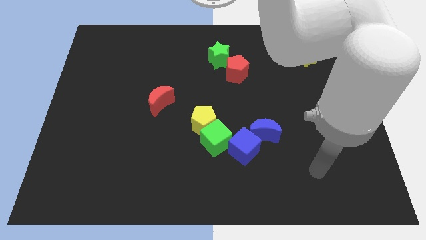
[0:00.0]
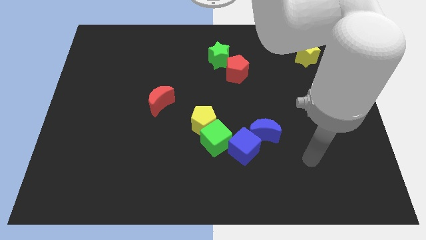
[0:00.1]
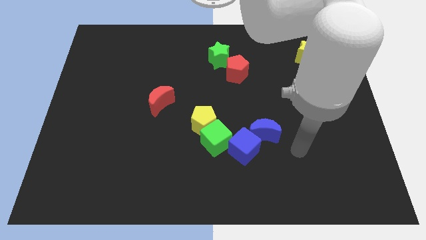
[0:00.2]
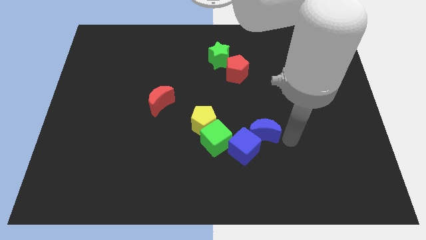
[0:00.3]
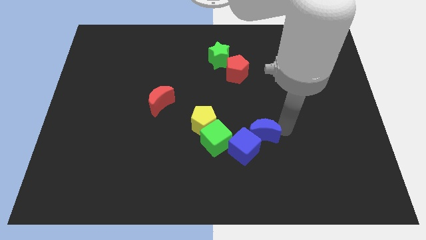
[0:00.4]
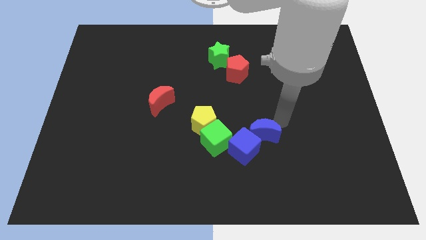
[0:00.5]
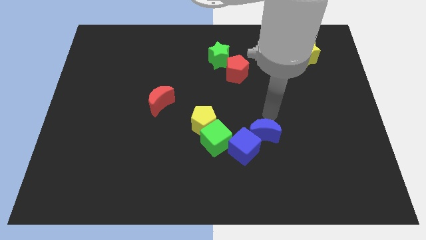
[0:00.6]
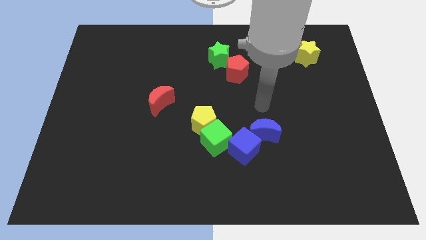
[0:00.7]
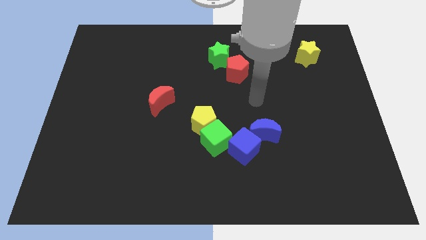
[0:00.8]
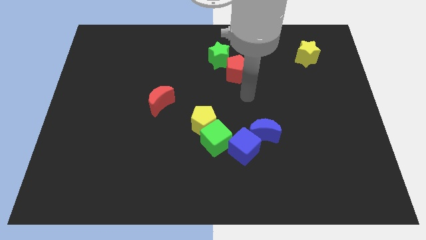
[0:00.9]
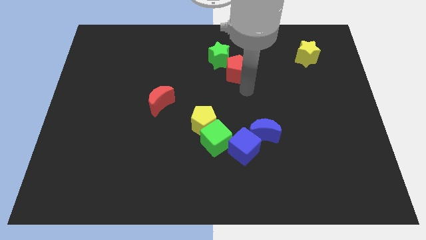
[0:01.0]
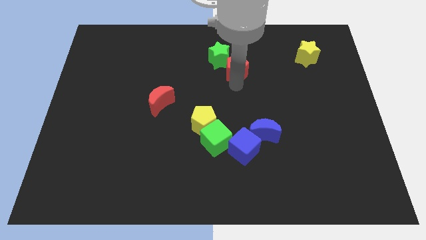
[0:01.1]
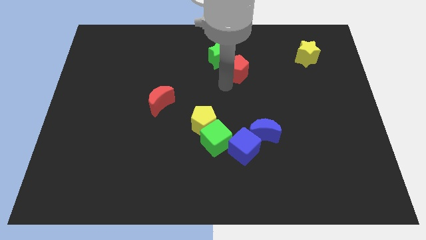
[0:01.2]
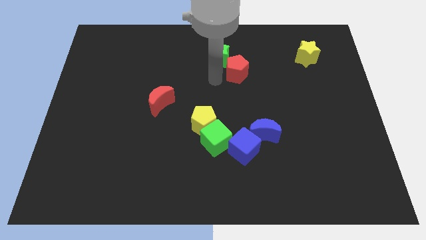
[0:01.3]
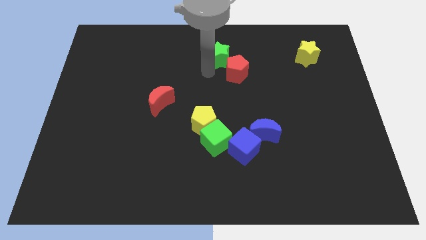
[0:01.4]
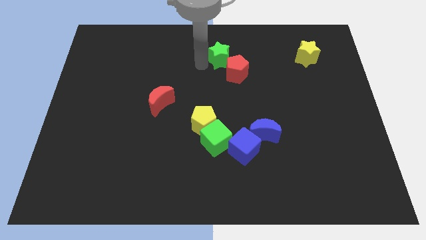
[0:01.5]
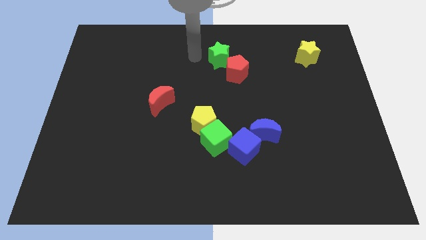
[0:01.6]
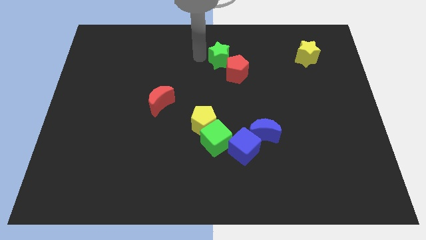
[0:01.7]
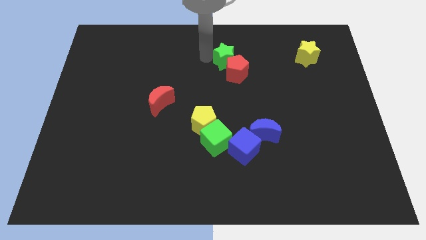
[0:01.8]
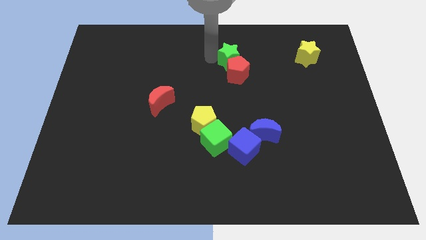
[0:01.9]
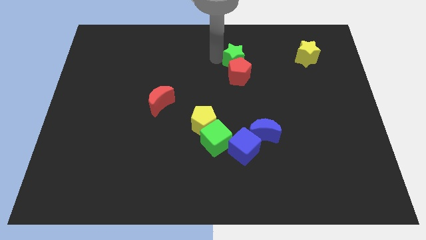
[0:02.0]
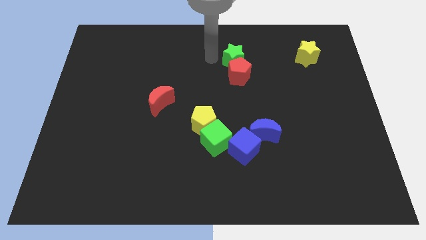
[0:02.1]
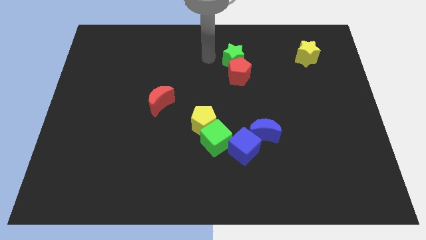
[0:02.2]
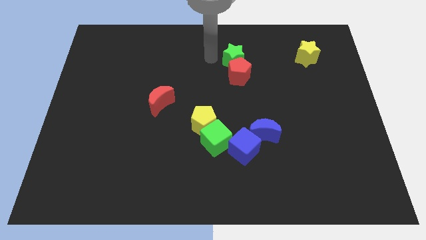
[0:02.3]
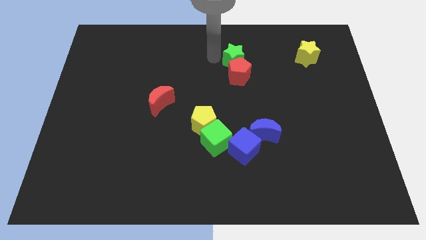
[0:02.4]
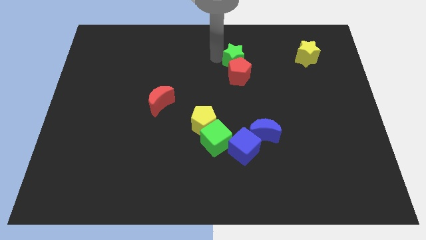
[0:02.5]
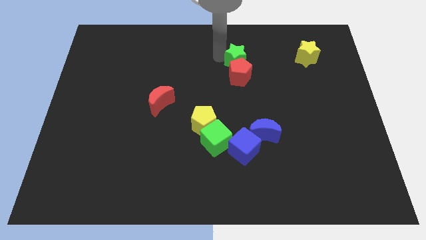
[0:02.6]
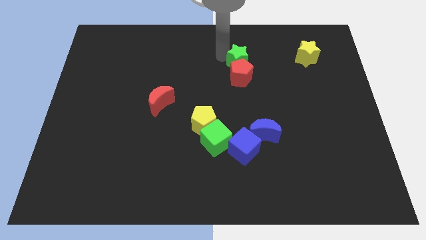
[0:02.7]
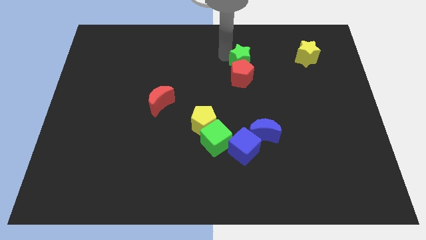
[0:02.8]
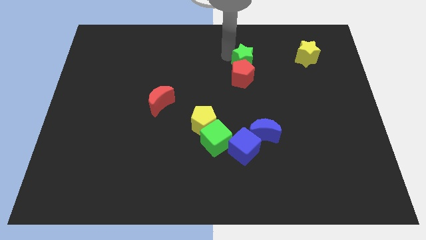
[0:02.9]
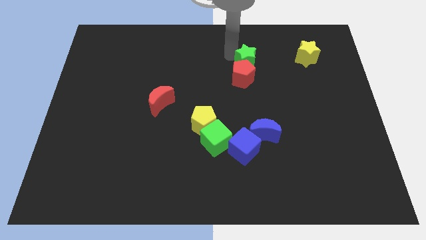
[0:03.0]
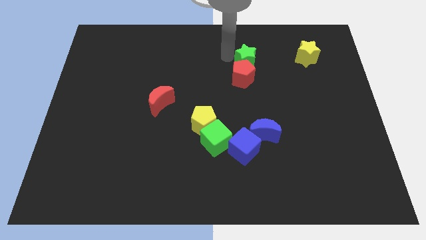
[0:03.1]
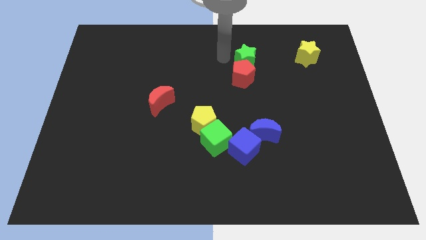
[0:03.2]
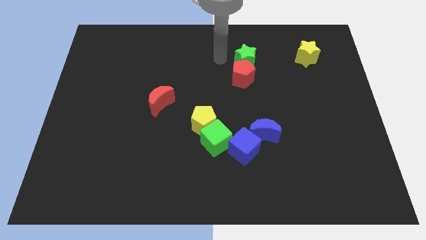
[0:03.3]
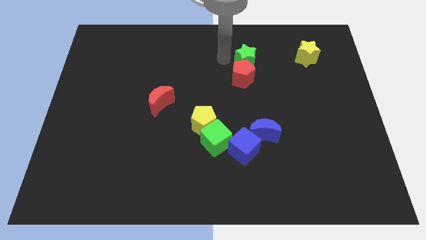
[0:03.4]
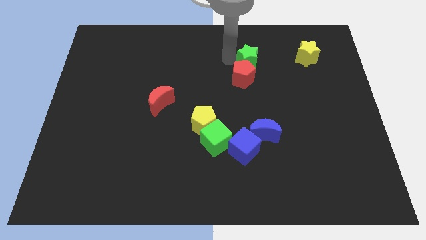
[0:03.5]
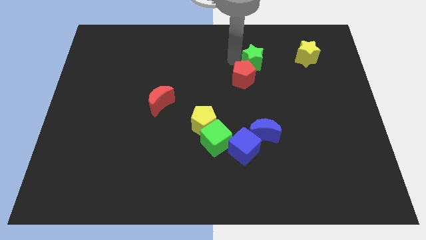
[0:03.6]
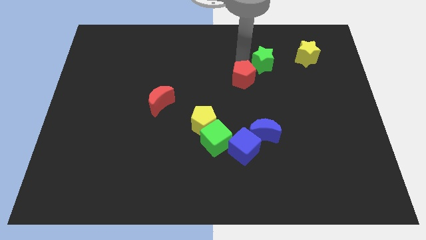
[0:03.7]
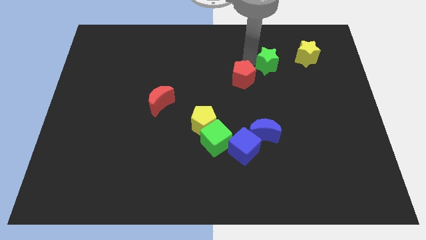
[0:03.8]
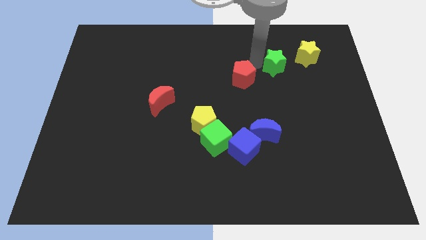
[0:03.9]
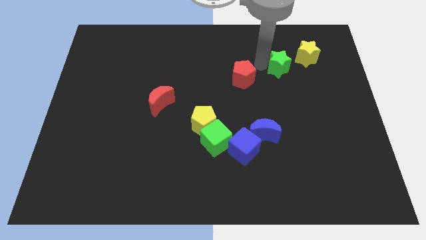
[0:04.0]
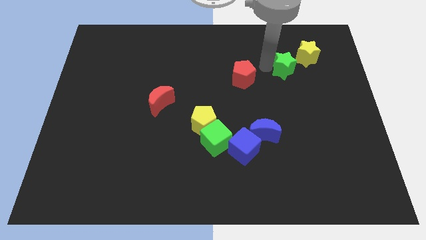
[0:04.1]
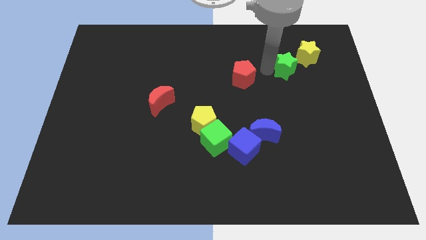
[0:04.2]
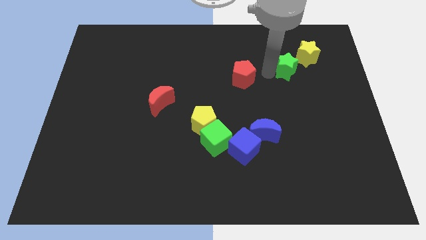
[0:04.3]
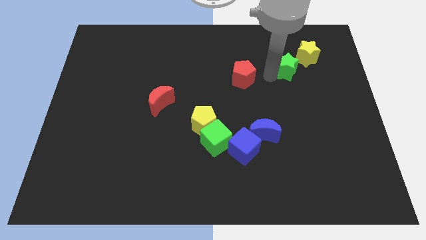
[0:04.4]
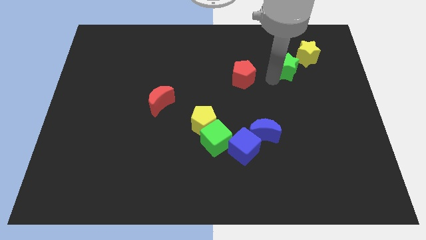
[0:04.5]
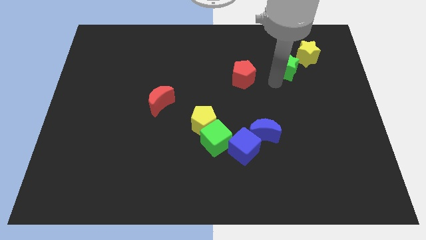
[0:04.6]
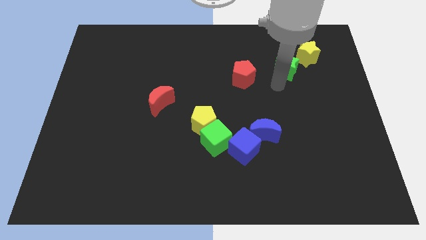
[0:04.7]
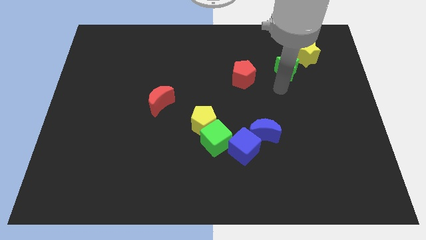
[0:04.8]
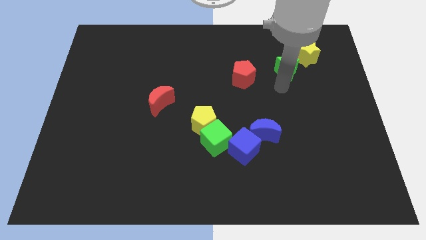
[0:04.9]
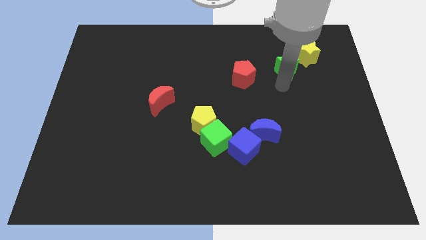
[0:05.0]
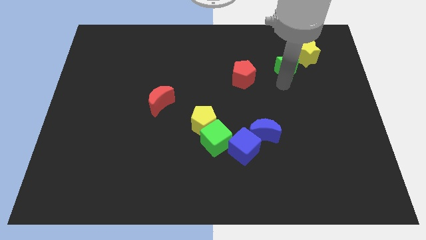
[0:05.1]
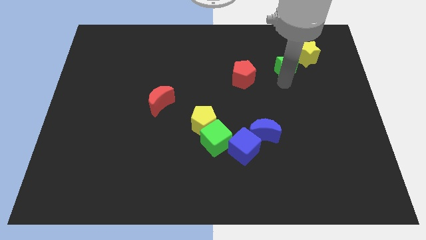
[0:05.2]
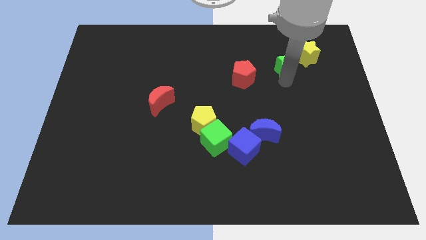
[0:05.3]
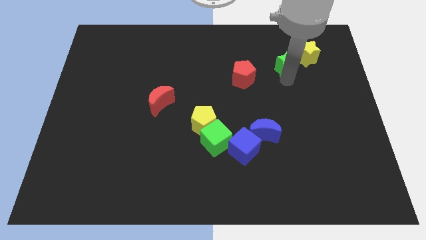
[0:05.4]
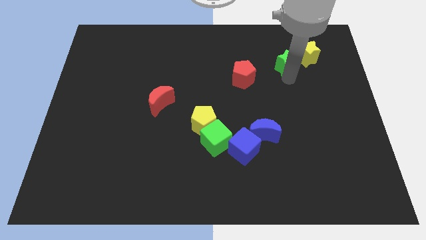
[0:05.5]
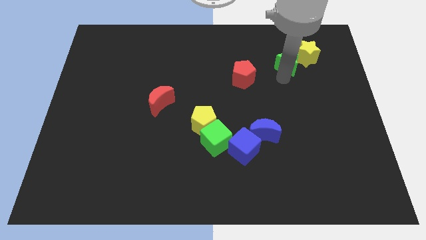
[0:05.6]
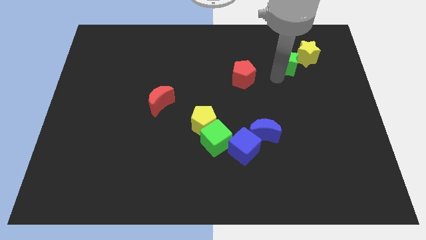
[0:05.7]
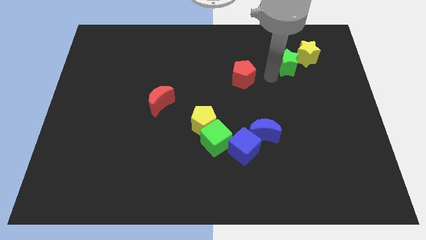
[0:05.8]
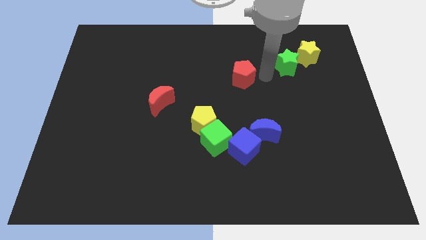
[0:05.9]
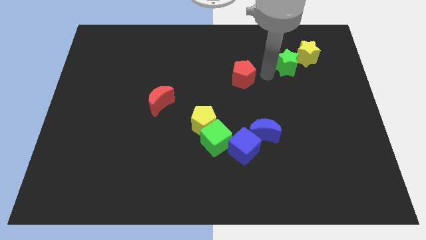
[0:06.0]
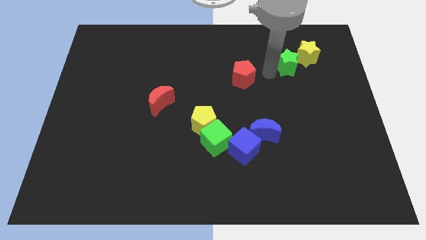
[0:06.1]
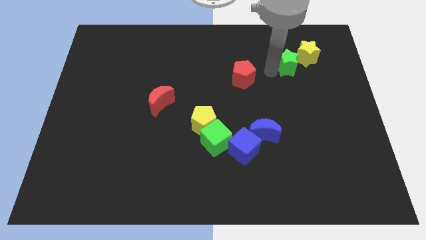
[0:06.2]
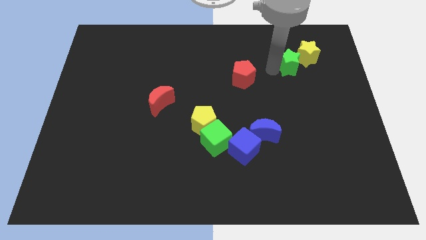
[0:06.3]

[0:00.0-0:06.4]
put the green star close to the yellow star

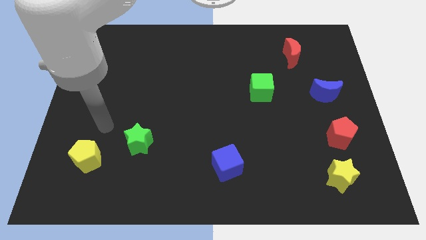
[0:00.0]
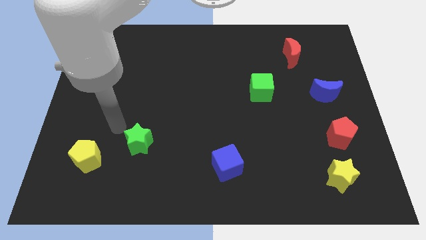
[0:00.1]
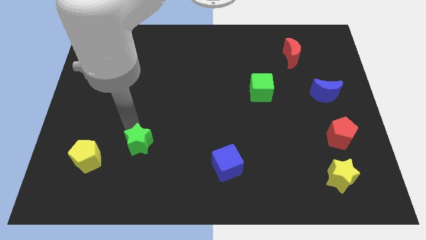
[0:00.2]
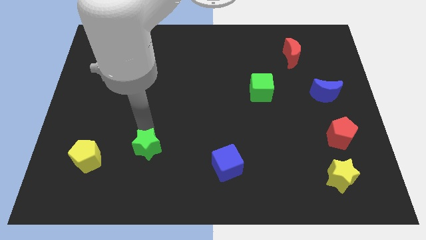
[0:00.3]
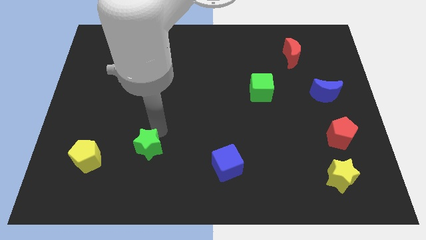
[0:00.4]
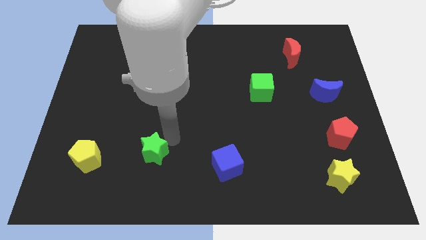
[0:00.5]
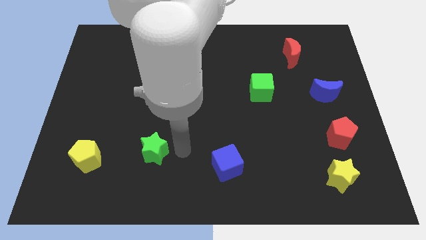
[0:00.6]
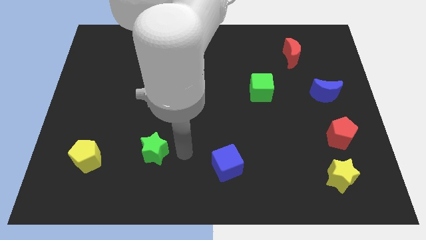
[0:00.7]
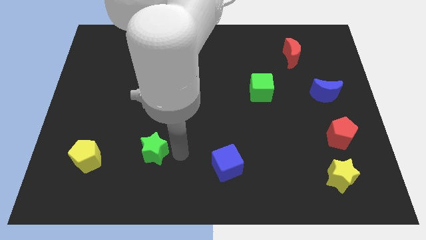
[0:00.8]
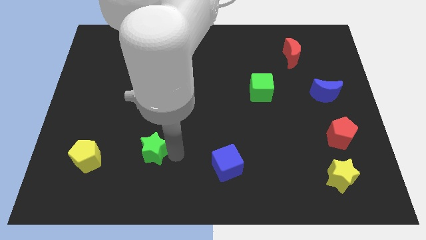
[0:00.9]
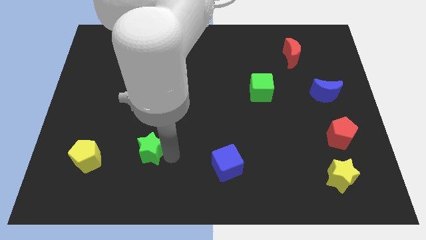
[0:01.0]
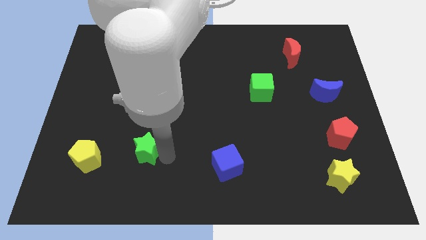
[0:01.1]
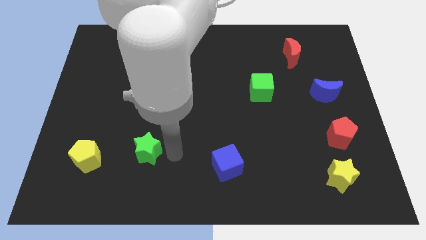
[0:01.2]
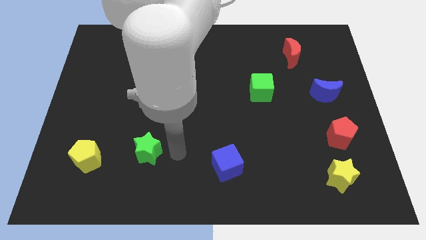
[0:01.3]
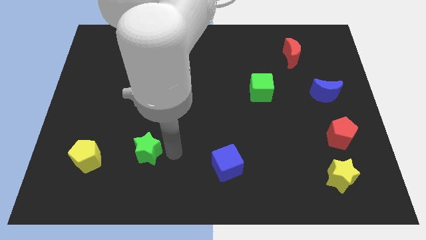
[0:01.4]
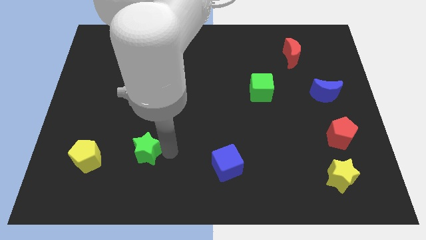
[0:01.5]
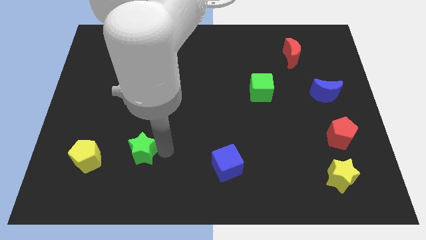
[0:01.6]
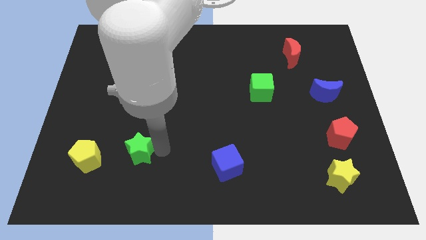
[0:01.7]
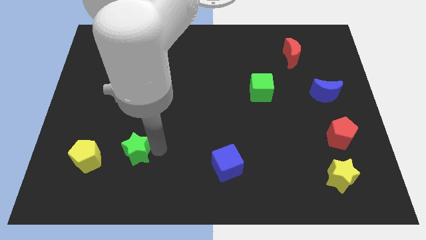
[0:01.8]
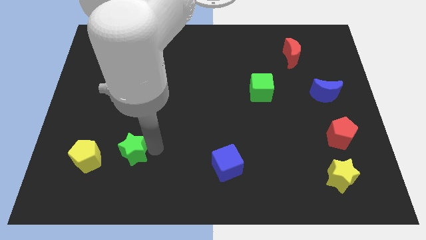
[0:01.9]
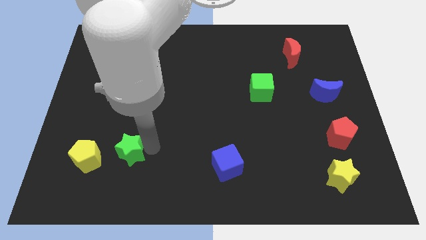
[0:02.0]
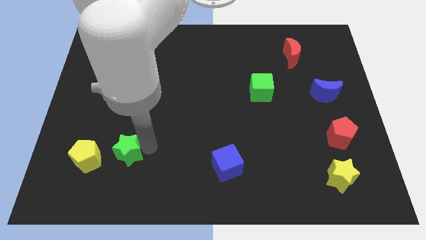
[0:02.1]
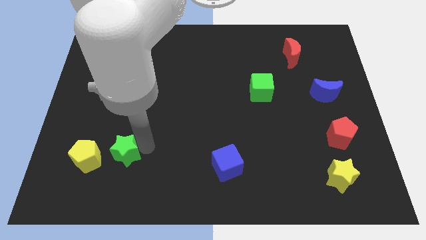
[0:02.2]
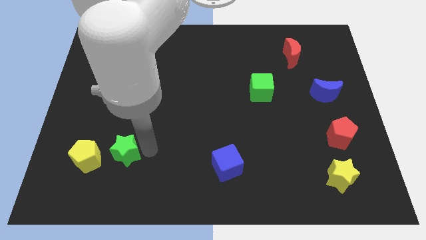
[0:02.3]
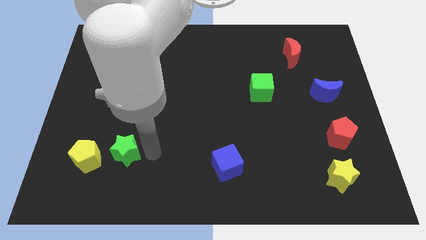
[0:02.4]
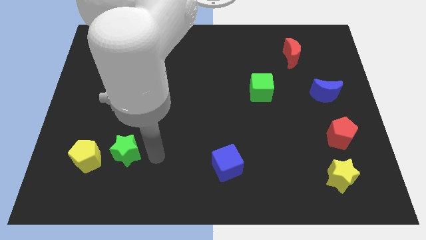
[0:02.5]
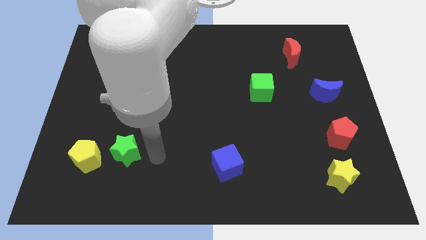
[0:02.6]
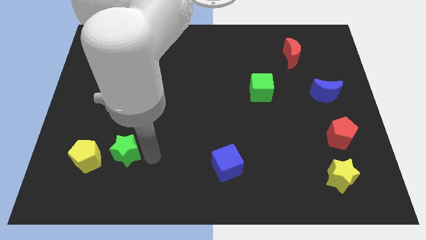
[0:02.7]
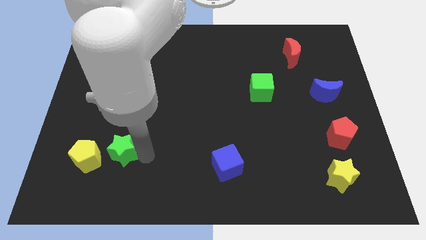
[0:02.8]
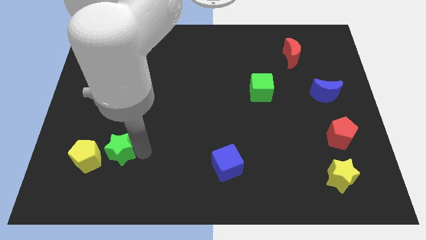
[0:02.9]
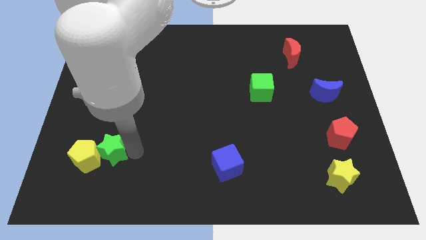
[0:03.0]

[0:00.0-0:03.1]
put the green star close to the yellow pentagon
